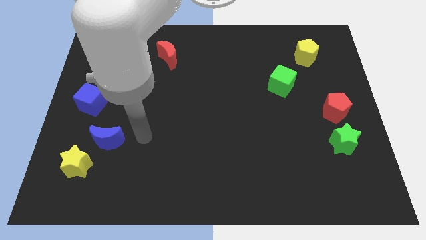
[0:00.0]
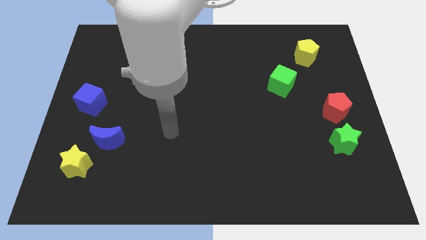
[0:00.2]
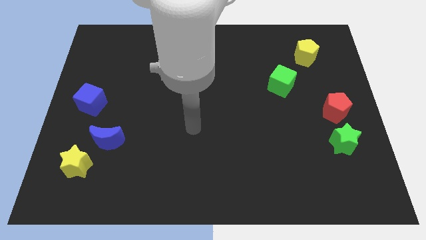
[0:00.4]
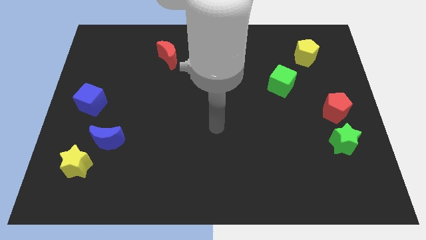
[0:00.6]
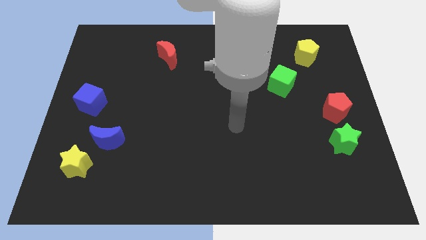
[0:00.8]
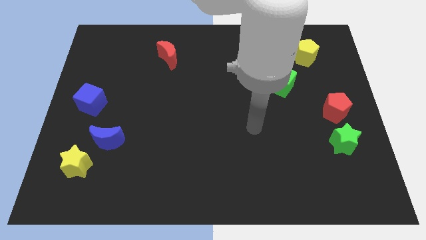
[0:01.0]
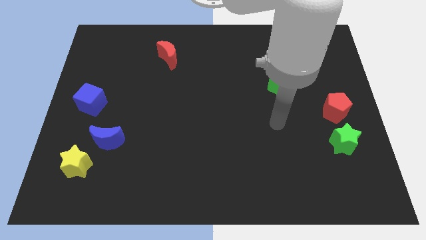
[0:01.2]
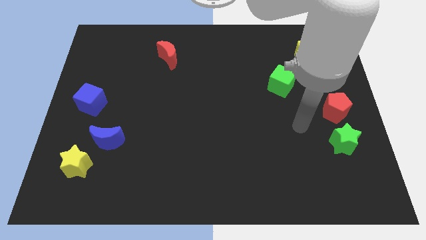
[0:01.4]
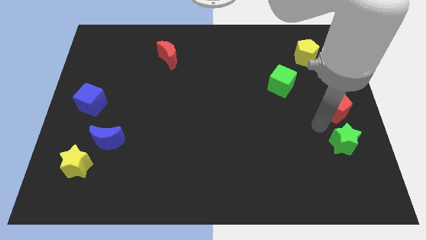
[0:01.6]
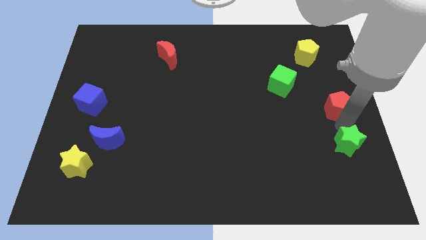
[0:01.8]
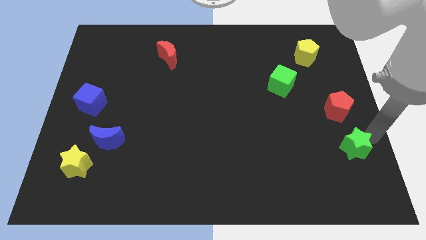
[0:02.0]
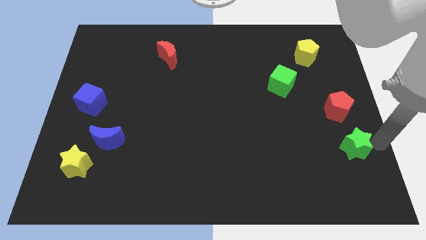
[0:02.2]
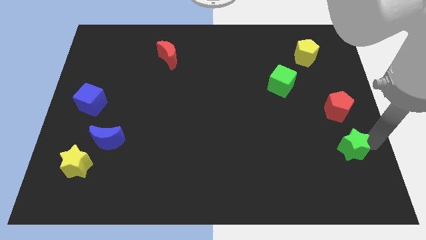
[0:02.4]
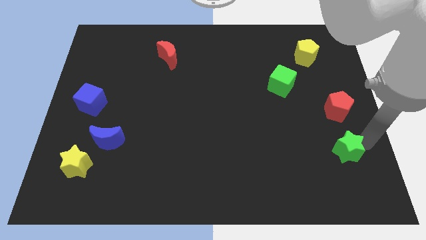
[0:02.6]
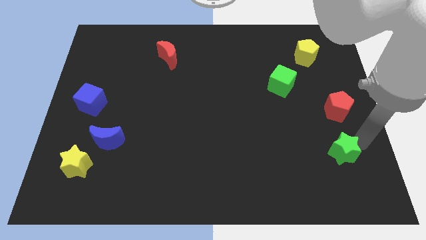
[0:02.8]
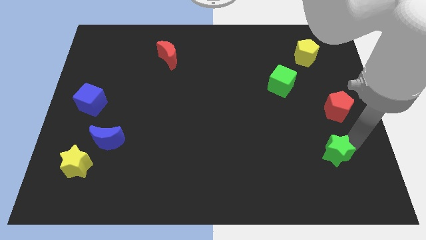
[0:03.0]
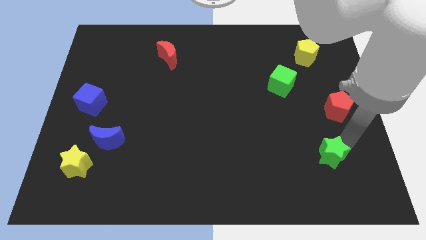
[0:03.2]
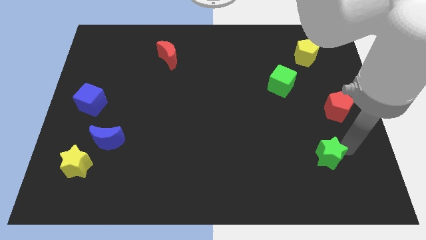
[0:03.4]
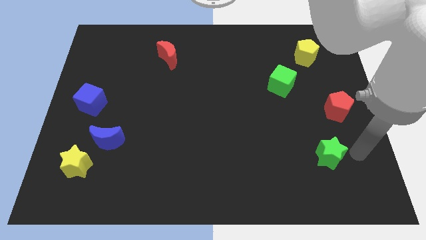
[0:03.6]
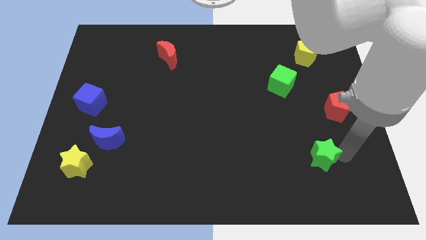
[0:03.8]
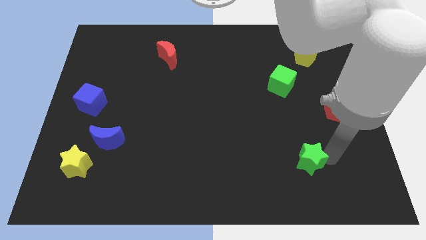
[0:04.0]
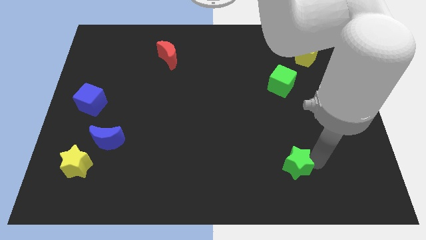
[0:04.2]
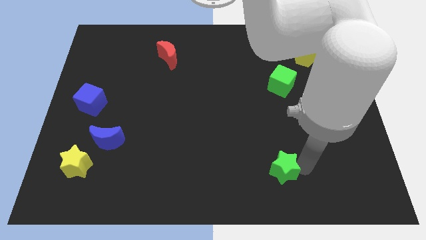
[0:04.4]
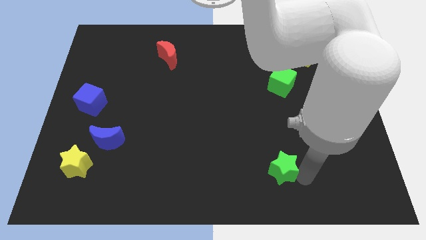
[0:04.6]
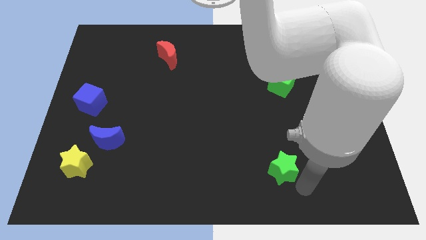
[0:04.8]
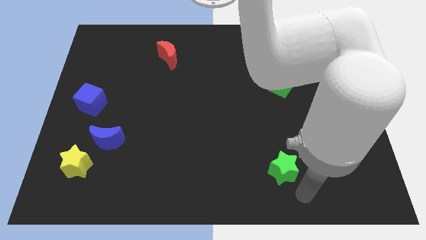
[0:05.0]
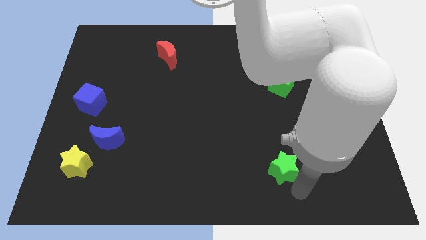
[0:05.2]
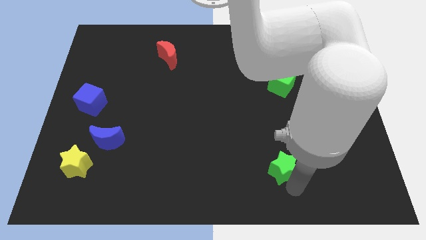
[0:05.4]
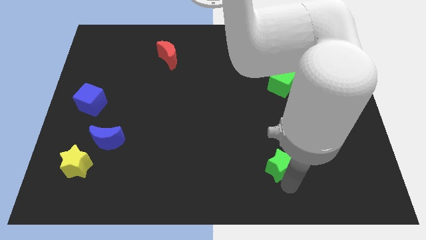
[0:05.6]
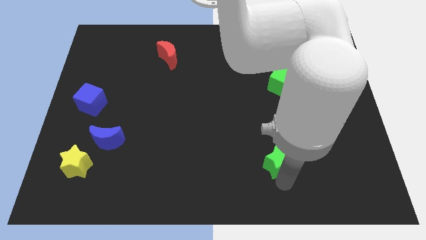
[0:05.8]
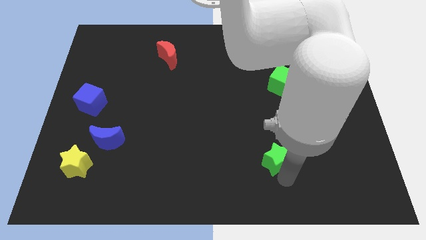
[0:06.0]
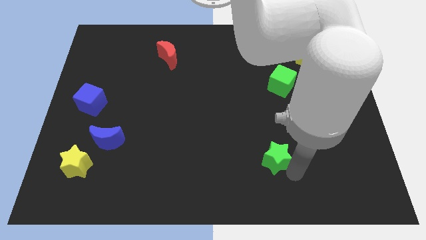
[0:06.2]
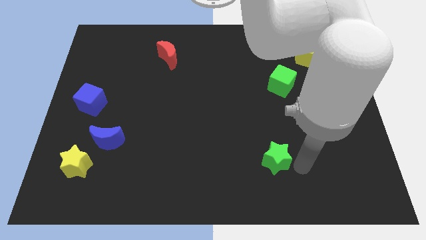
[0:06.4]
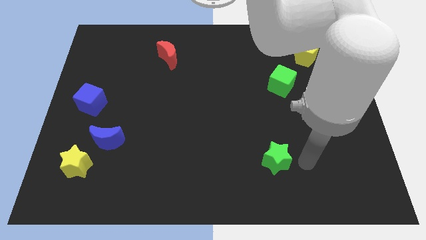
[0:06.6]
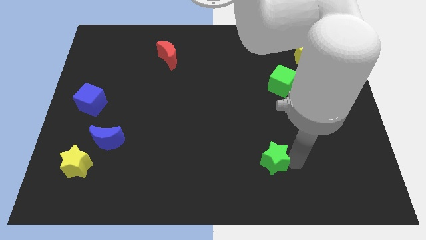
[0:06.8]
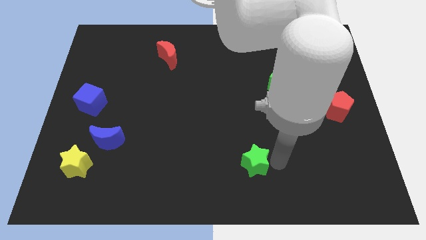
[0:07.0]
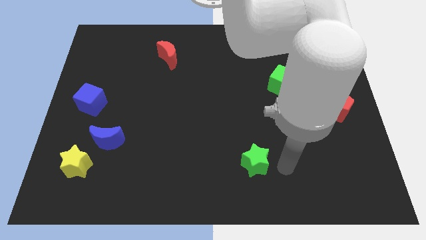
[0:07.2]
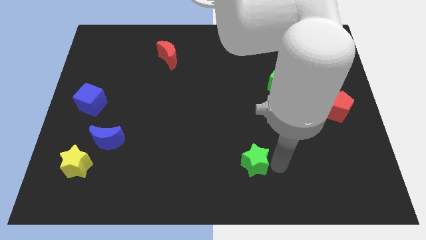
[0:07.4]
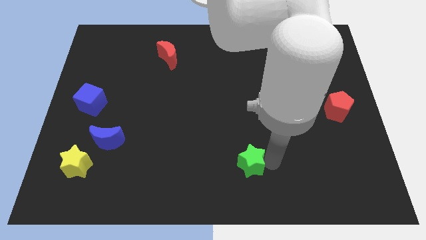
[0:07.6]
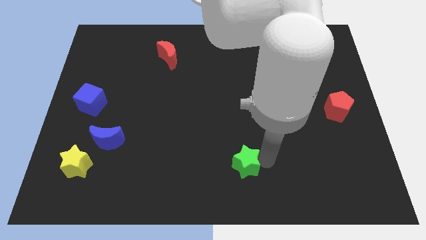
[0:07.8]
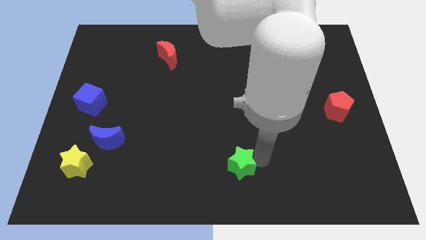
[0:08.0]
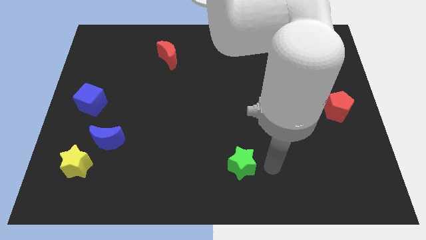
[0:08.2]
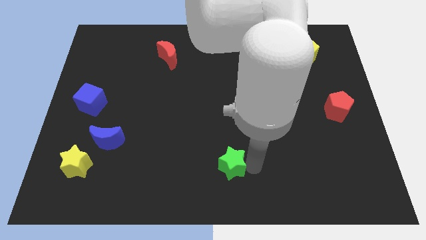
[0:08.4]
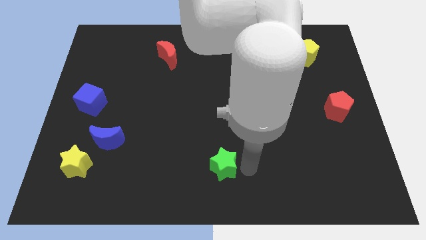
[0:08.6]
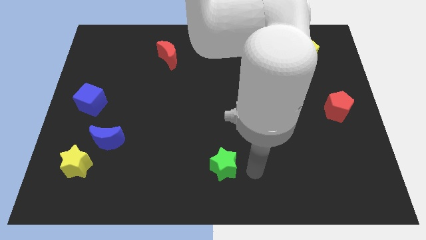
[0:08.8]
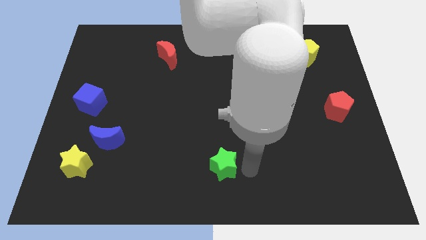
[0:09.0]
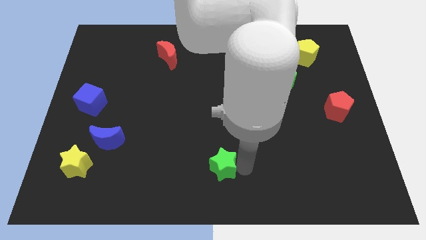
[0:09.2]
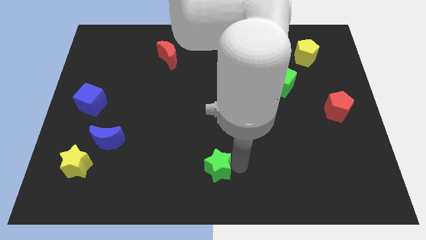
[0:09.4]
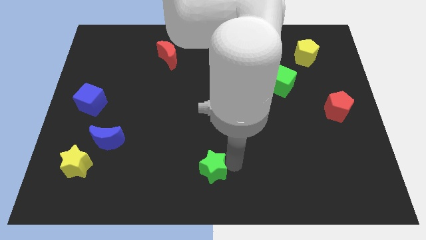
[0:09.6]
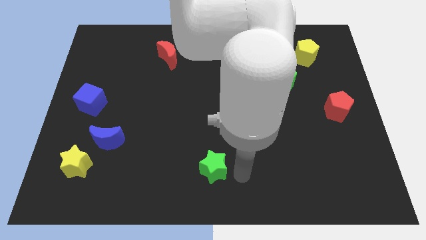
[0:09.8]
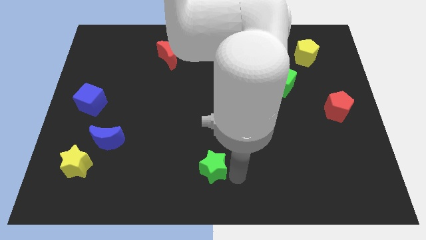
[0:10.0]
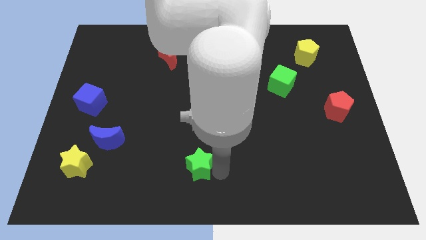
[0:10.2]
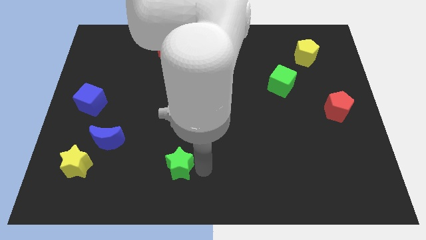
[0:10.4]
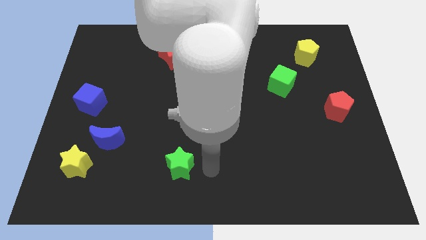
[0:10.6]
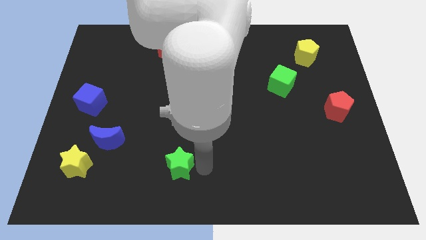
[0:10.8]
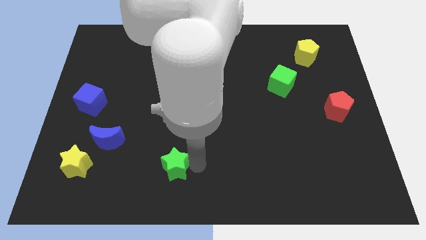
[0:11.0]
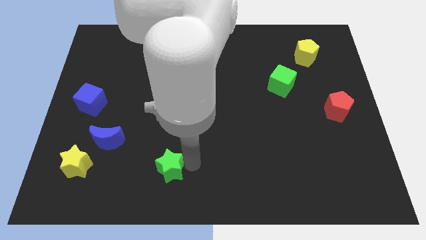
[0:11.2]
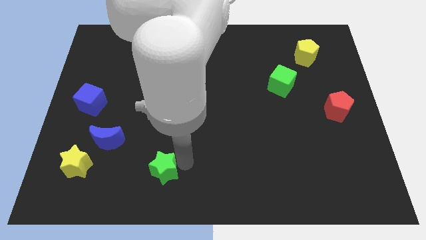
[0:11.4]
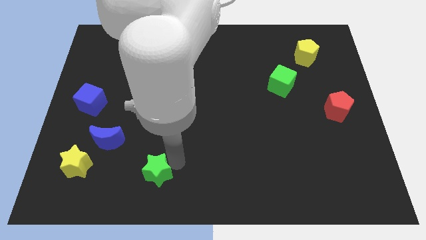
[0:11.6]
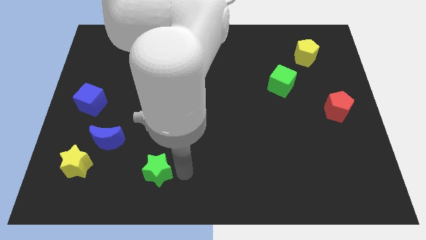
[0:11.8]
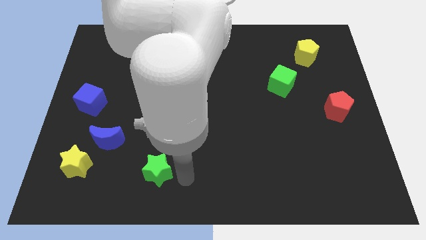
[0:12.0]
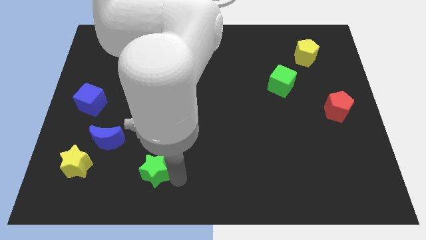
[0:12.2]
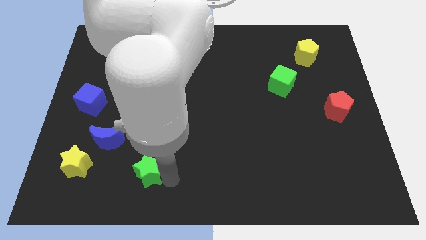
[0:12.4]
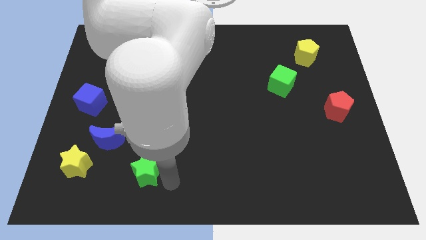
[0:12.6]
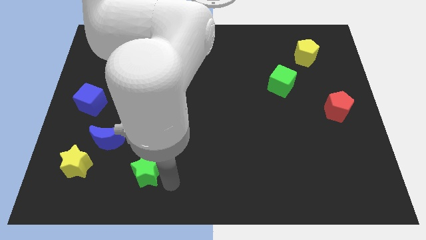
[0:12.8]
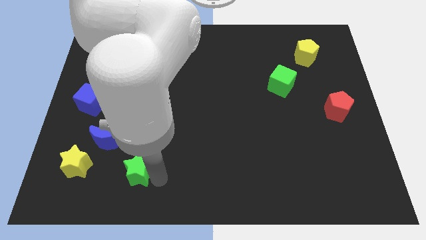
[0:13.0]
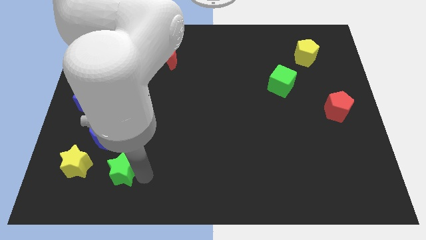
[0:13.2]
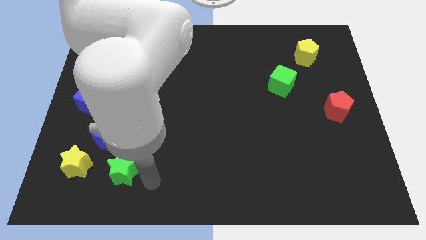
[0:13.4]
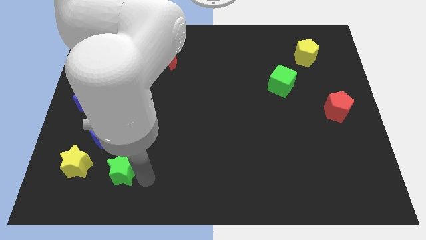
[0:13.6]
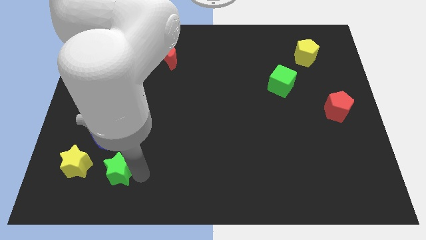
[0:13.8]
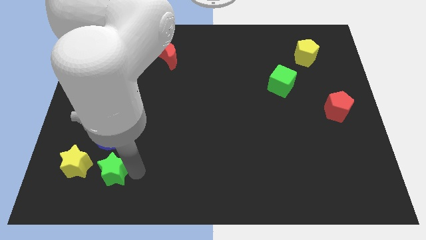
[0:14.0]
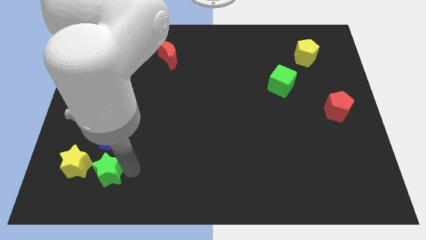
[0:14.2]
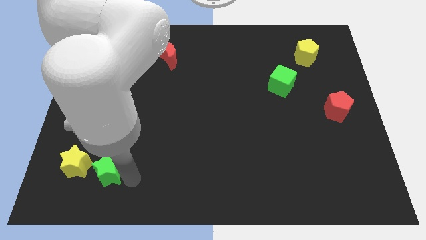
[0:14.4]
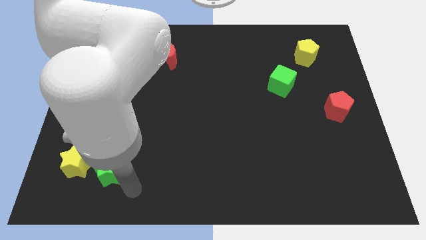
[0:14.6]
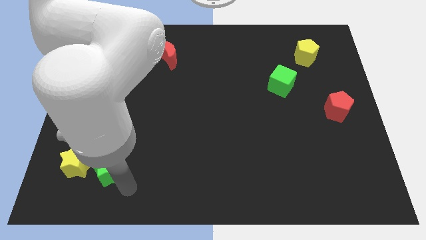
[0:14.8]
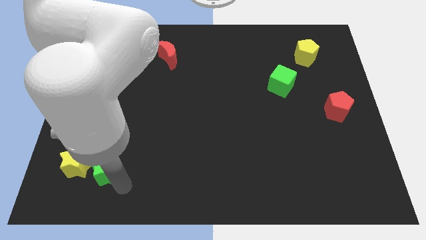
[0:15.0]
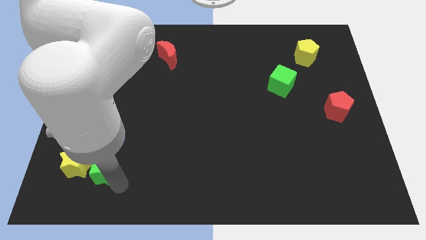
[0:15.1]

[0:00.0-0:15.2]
slide the green star to the yellow star
